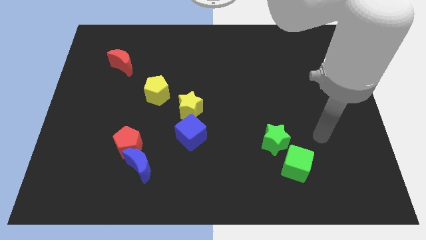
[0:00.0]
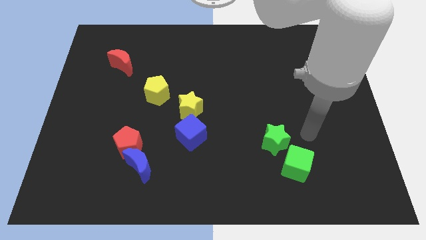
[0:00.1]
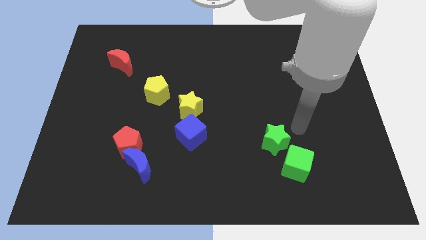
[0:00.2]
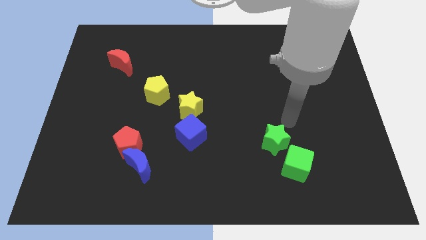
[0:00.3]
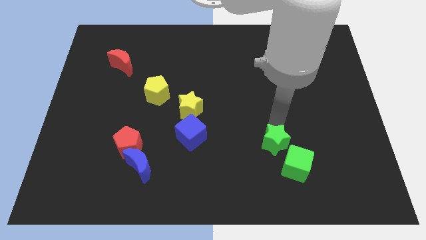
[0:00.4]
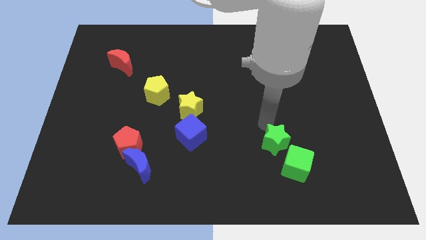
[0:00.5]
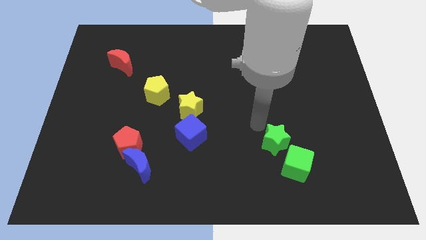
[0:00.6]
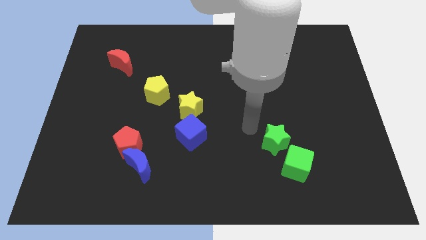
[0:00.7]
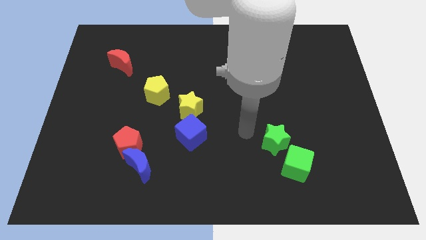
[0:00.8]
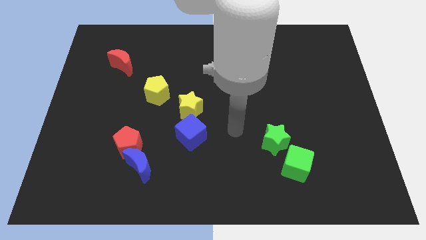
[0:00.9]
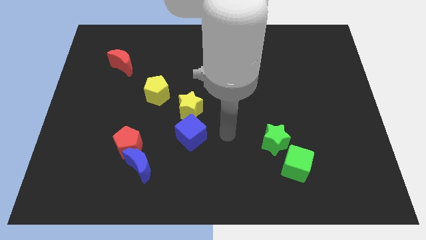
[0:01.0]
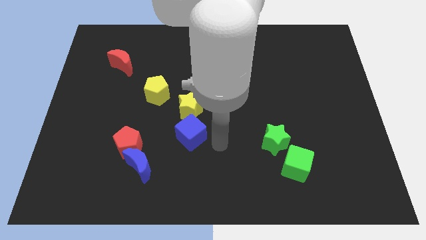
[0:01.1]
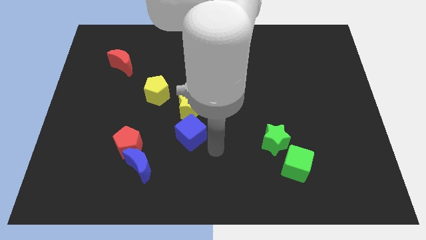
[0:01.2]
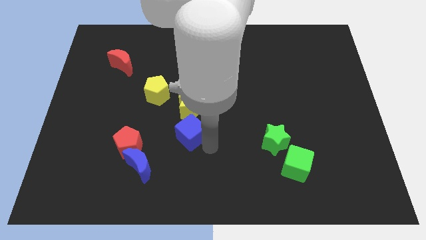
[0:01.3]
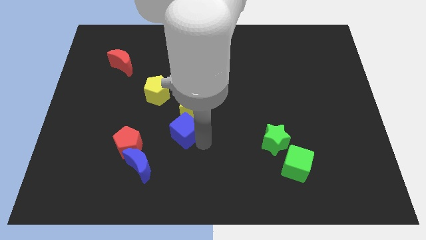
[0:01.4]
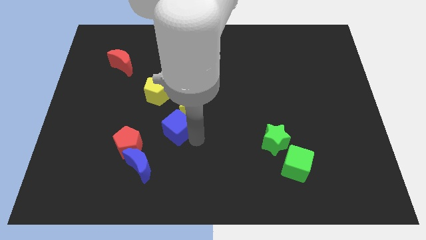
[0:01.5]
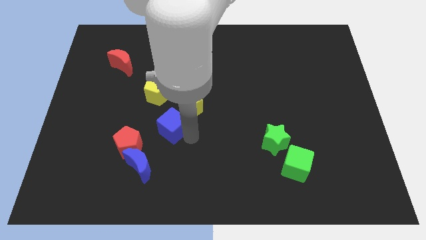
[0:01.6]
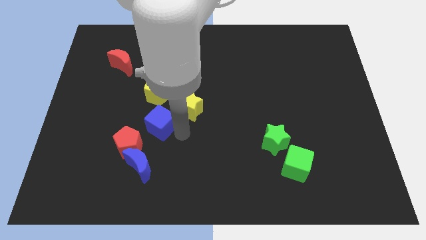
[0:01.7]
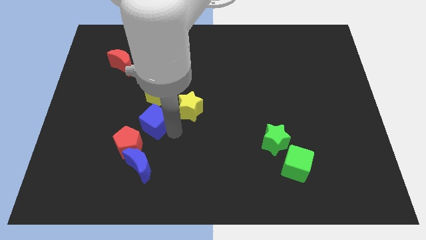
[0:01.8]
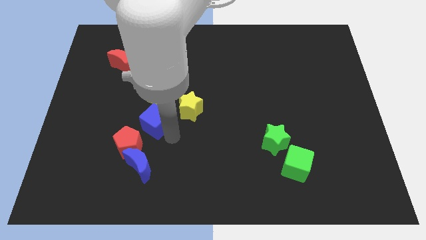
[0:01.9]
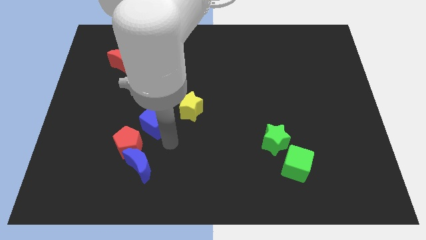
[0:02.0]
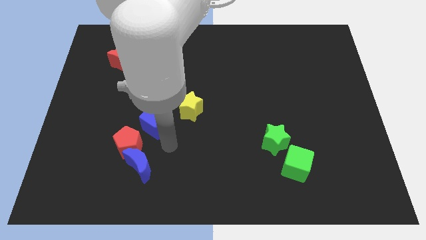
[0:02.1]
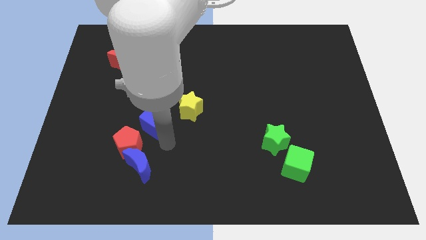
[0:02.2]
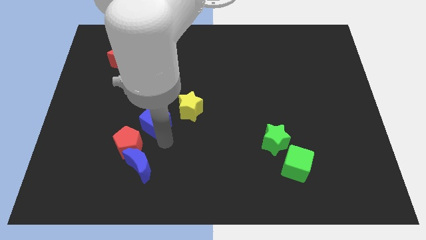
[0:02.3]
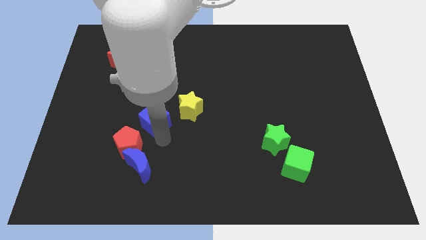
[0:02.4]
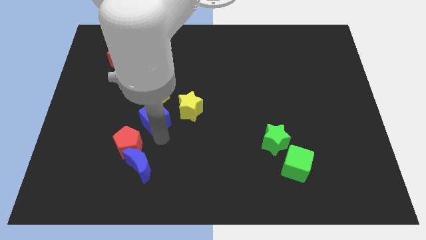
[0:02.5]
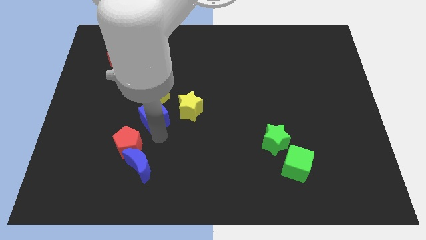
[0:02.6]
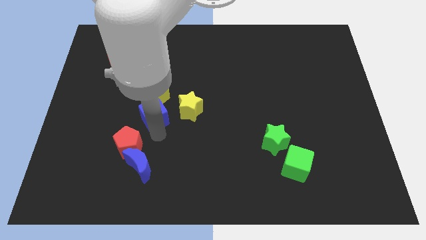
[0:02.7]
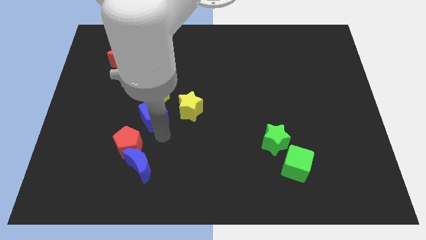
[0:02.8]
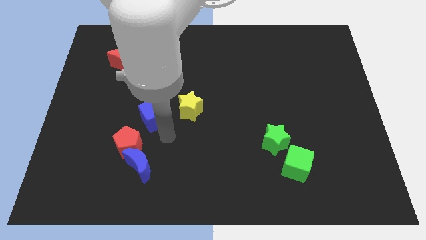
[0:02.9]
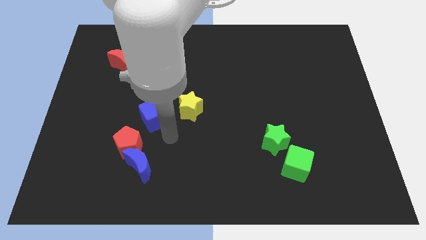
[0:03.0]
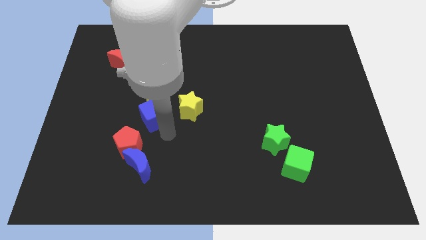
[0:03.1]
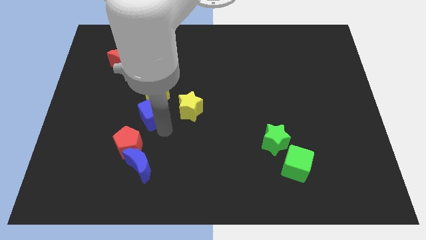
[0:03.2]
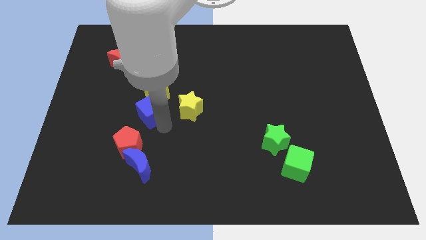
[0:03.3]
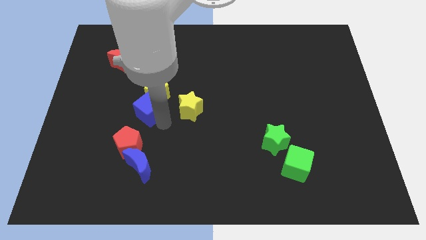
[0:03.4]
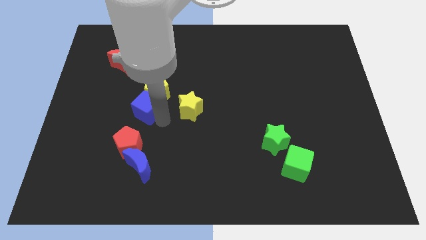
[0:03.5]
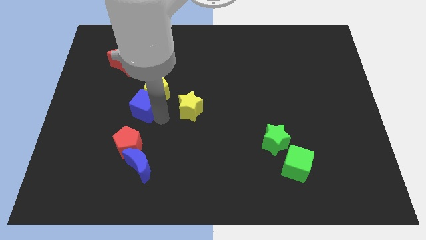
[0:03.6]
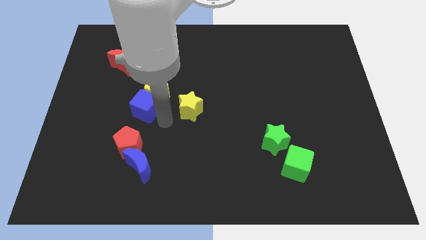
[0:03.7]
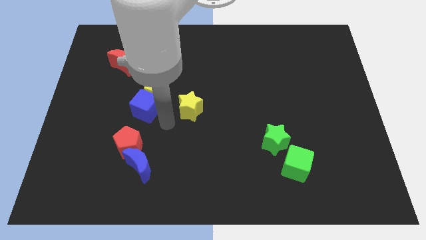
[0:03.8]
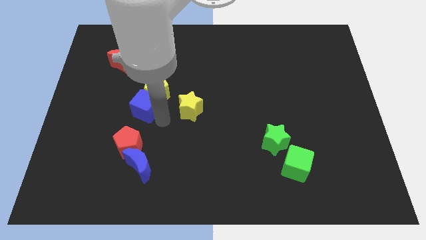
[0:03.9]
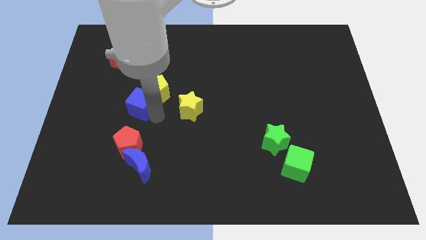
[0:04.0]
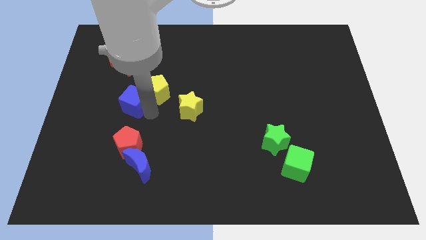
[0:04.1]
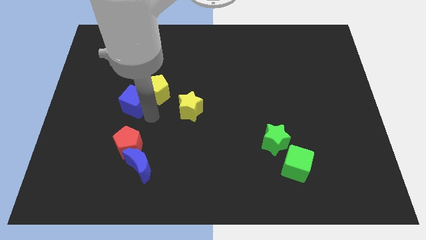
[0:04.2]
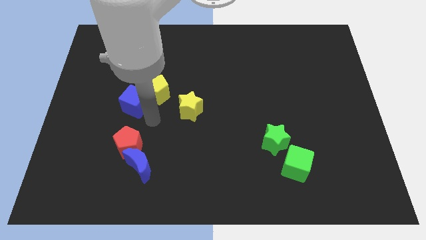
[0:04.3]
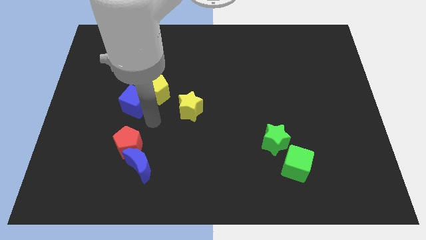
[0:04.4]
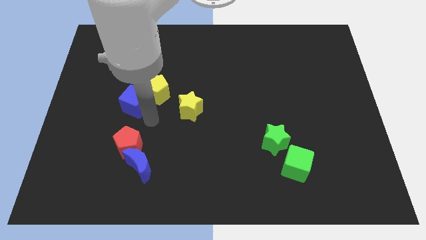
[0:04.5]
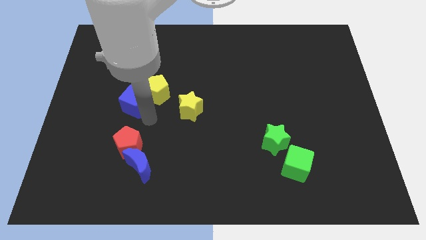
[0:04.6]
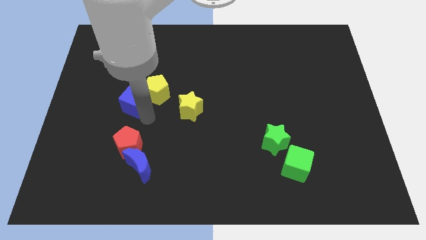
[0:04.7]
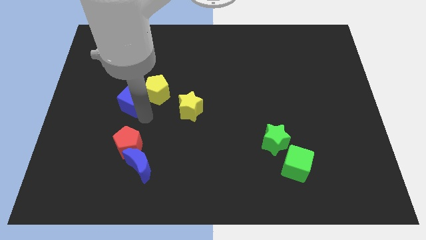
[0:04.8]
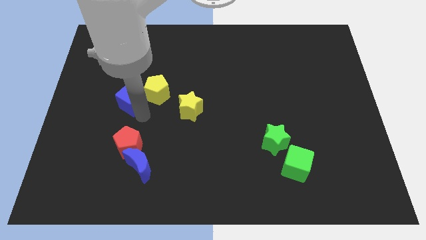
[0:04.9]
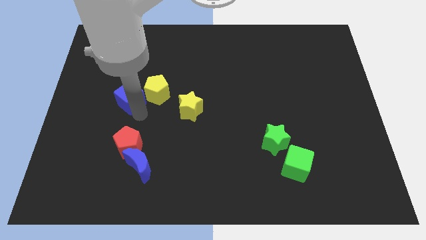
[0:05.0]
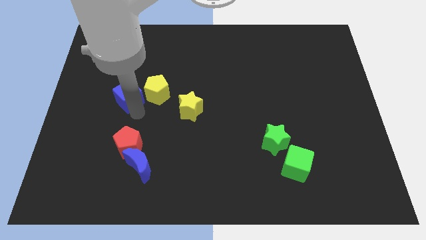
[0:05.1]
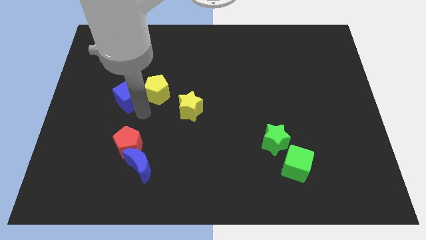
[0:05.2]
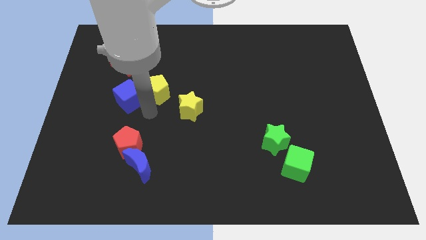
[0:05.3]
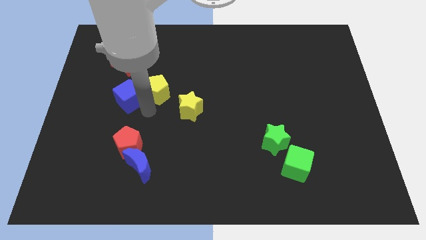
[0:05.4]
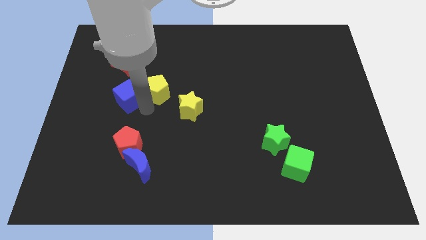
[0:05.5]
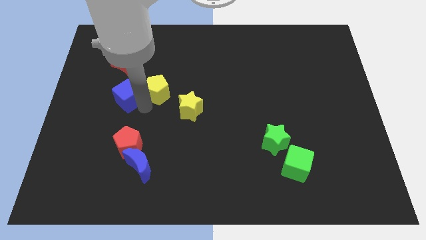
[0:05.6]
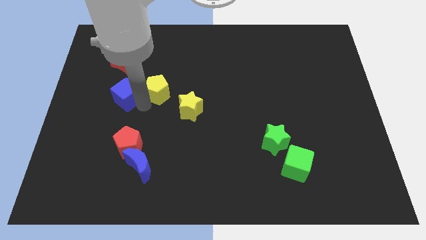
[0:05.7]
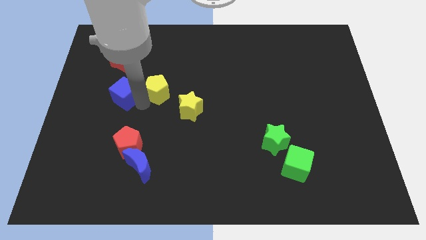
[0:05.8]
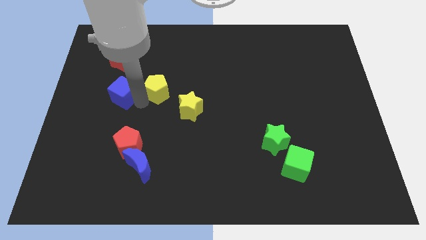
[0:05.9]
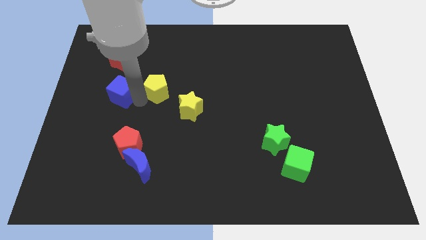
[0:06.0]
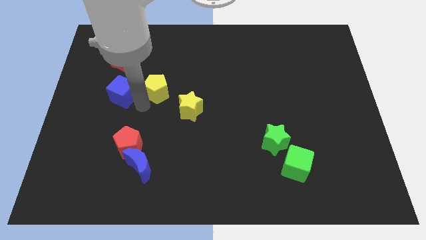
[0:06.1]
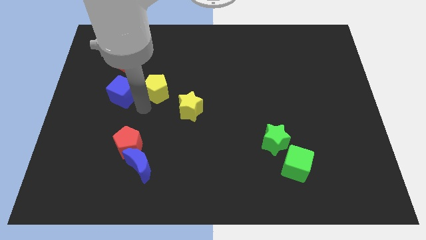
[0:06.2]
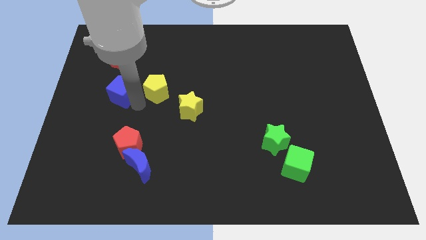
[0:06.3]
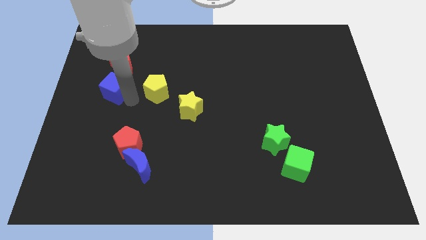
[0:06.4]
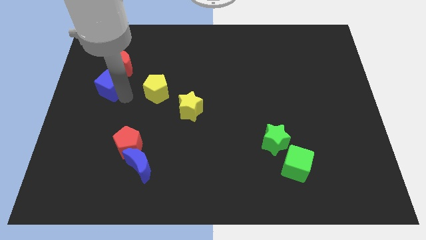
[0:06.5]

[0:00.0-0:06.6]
move the blue cube to the bottom left of the red moon

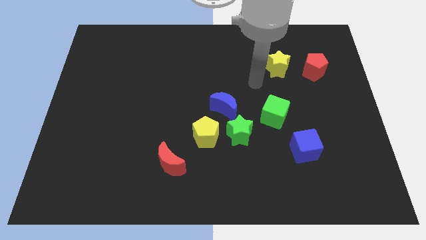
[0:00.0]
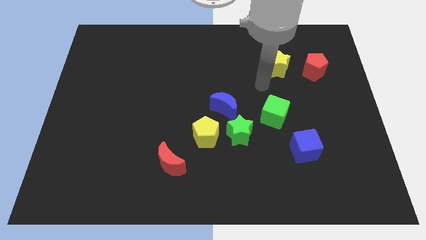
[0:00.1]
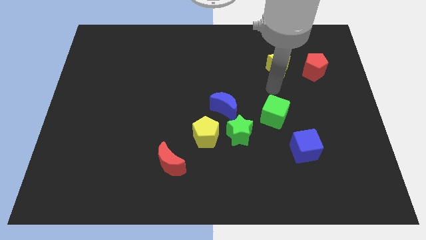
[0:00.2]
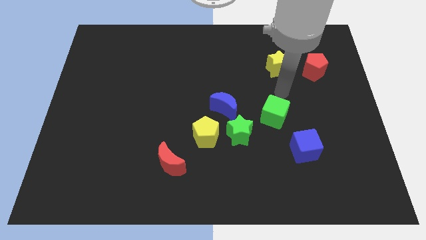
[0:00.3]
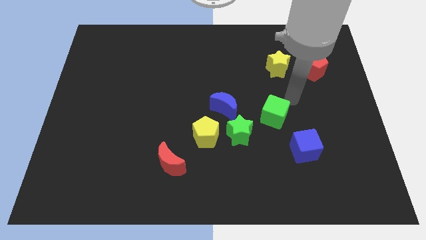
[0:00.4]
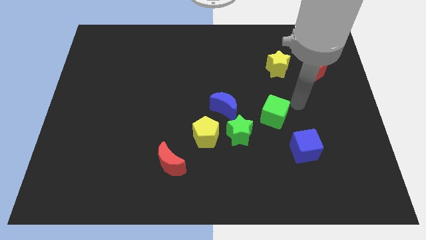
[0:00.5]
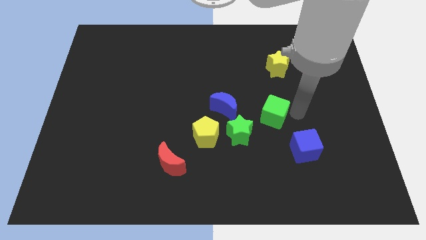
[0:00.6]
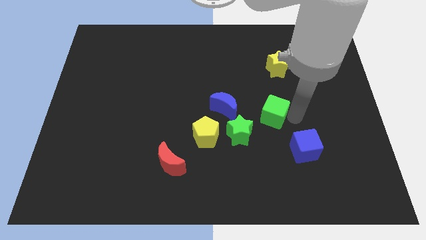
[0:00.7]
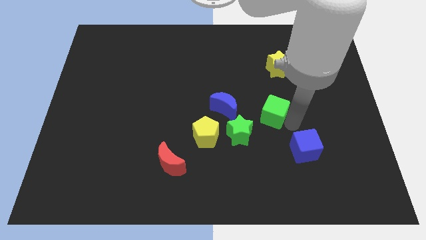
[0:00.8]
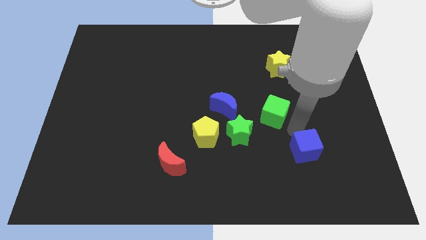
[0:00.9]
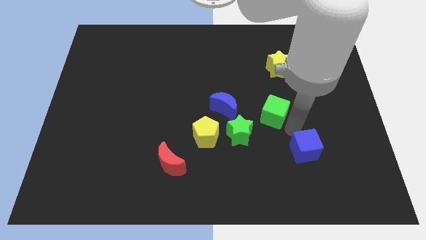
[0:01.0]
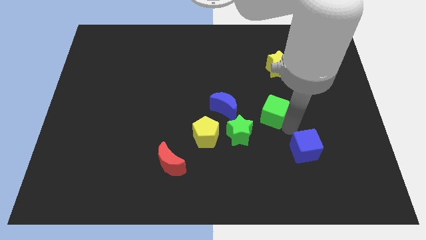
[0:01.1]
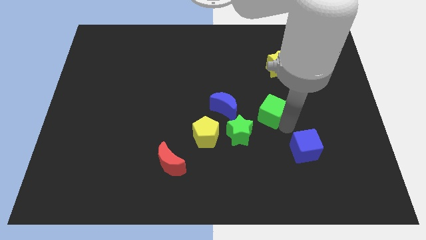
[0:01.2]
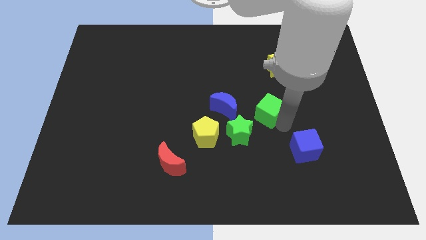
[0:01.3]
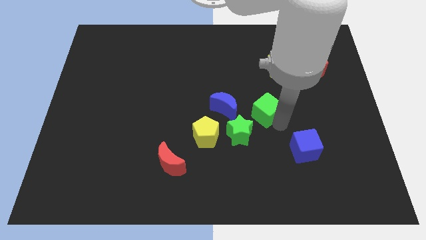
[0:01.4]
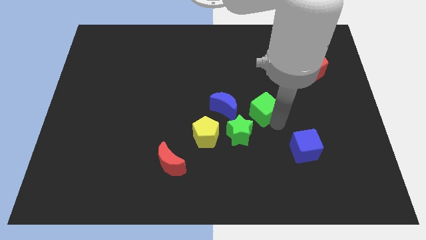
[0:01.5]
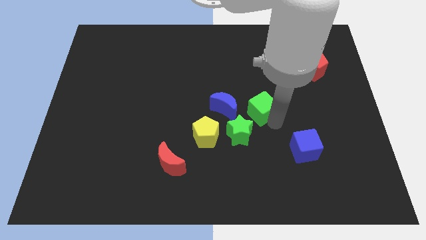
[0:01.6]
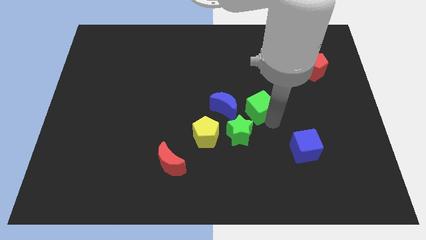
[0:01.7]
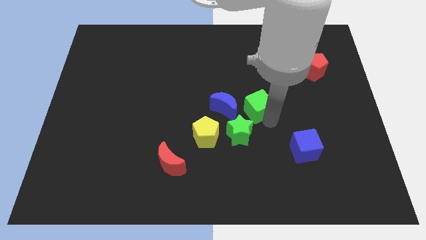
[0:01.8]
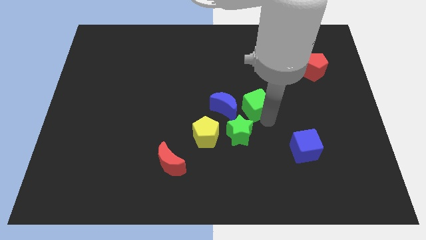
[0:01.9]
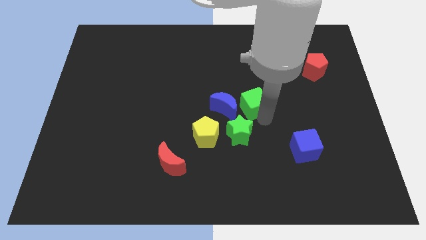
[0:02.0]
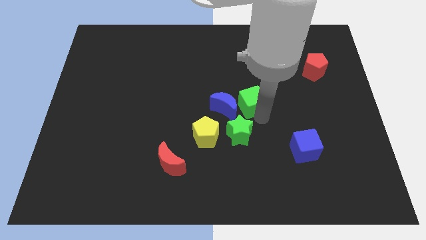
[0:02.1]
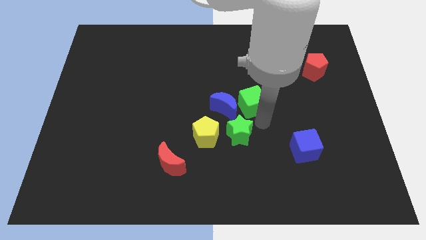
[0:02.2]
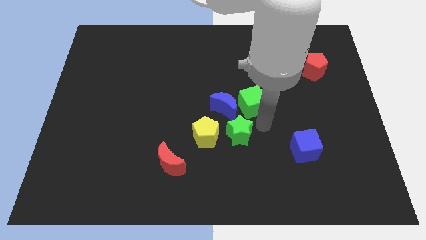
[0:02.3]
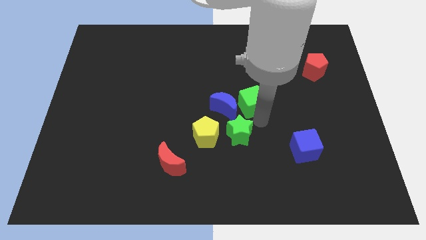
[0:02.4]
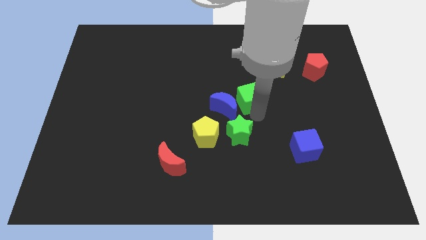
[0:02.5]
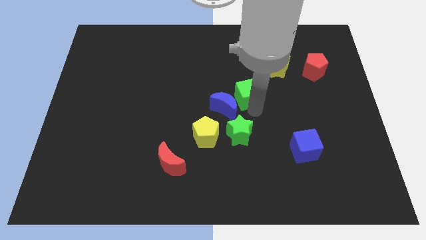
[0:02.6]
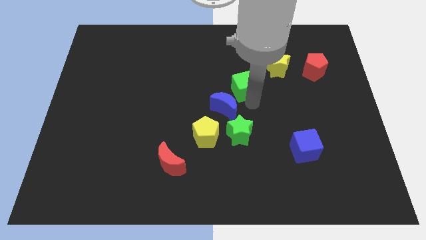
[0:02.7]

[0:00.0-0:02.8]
put the green cube to the top of the blue moon
